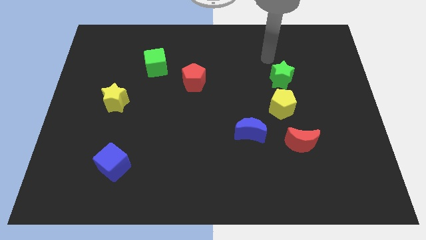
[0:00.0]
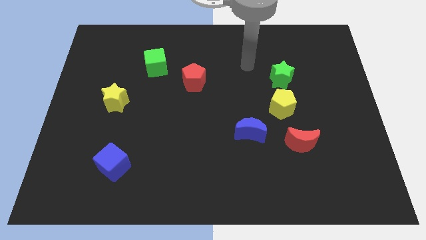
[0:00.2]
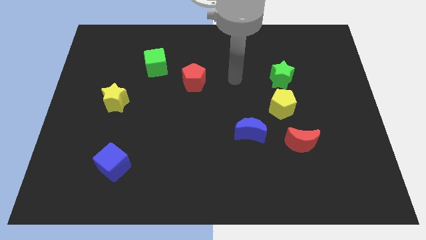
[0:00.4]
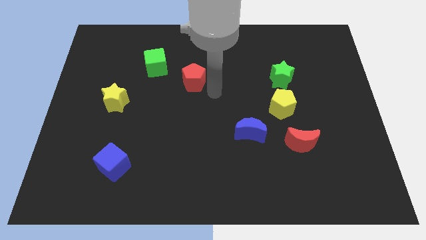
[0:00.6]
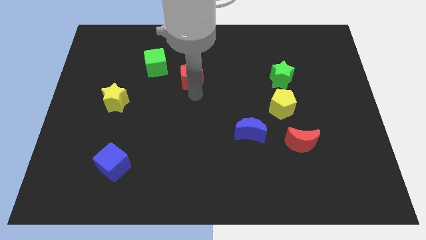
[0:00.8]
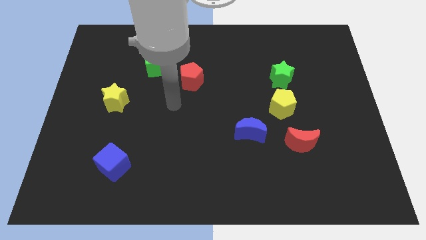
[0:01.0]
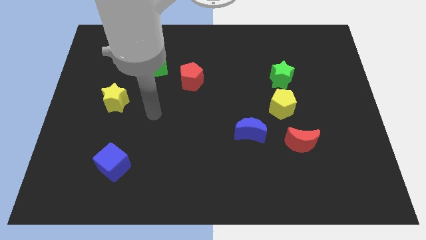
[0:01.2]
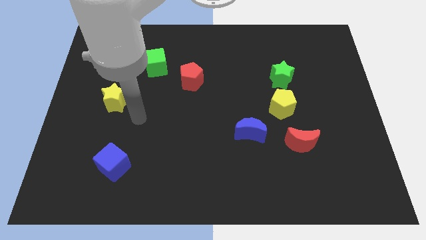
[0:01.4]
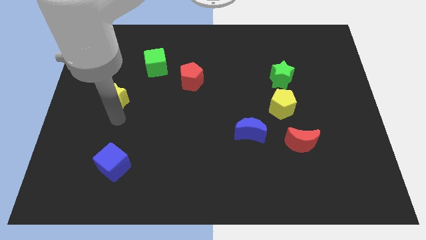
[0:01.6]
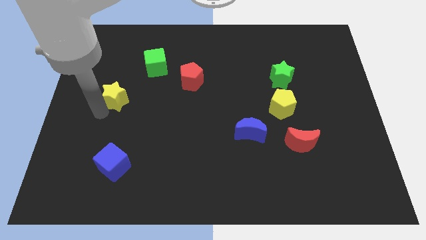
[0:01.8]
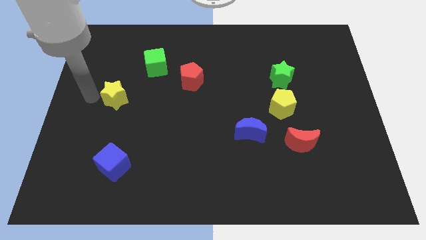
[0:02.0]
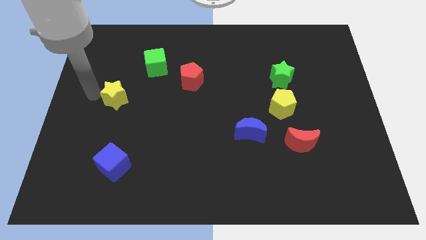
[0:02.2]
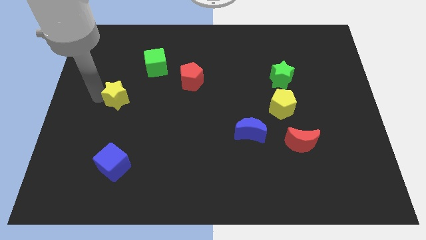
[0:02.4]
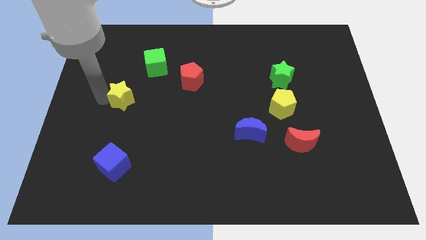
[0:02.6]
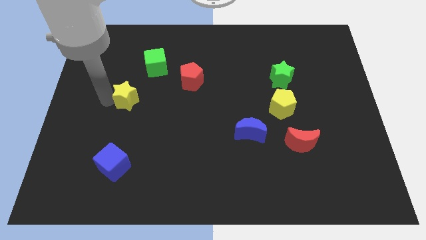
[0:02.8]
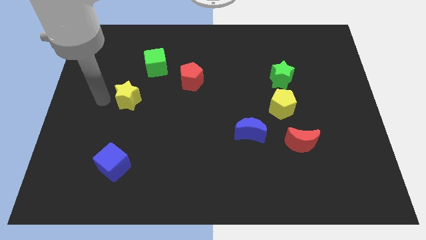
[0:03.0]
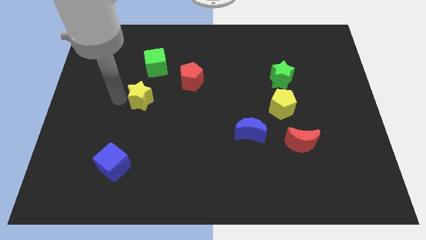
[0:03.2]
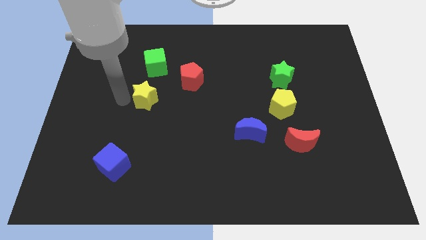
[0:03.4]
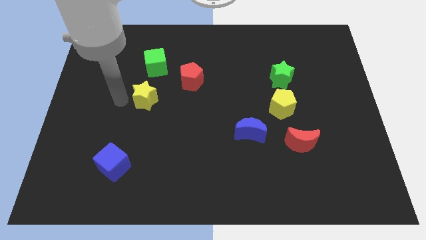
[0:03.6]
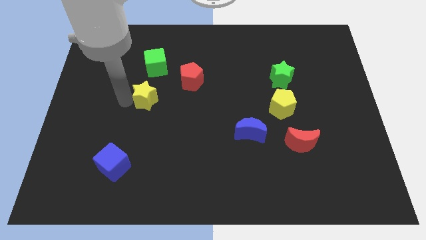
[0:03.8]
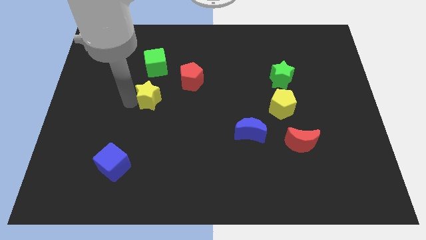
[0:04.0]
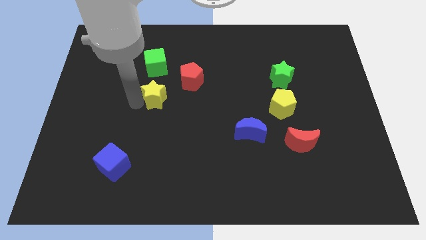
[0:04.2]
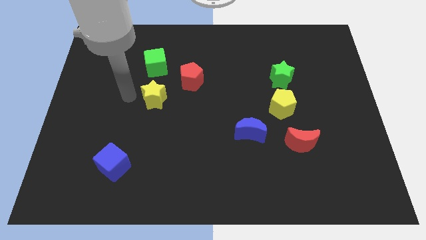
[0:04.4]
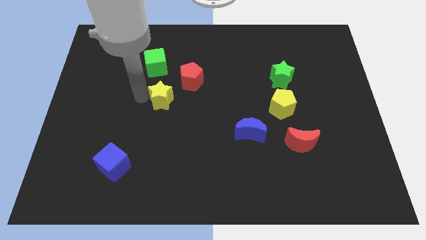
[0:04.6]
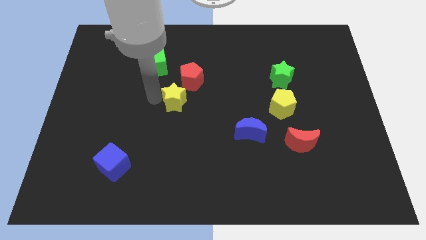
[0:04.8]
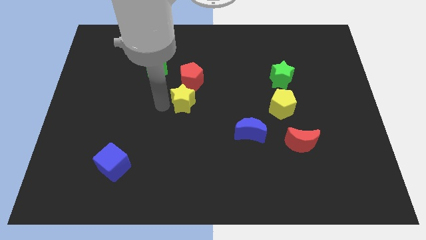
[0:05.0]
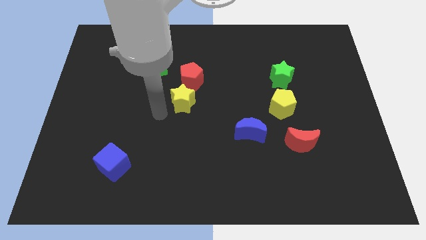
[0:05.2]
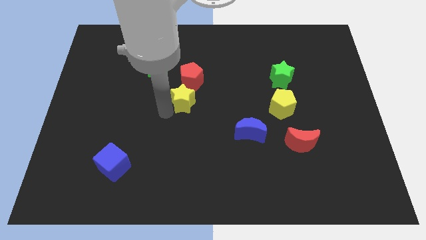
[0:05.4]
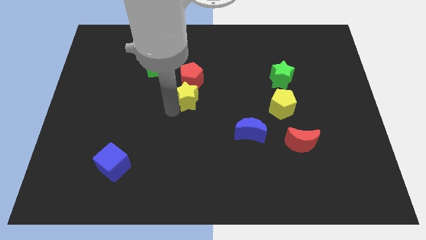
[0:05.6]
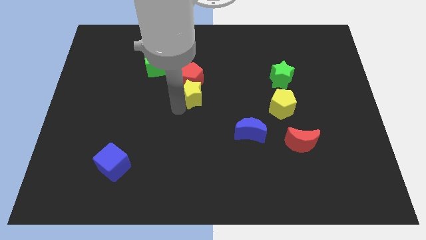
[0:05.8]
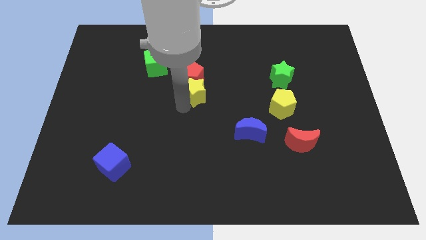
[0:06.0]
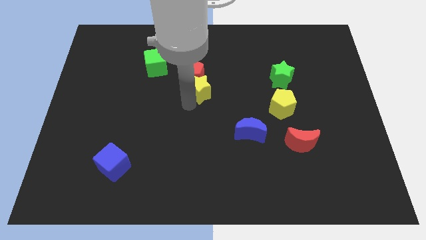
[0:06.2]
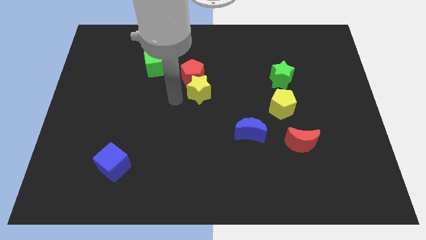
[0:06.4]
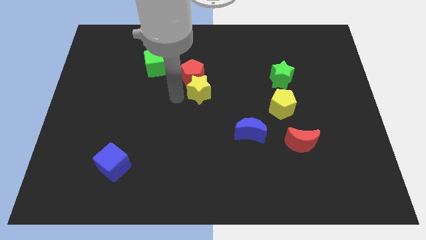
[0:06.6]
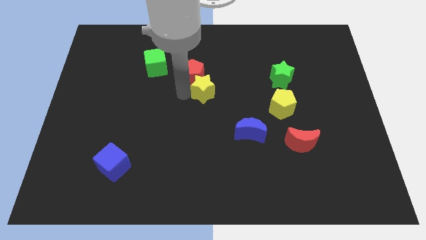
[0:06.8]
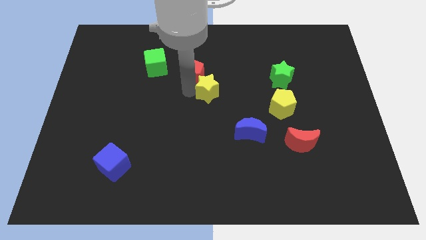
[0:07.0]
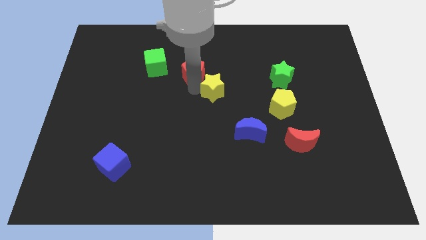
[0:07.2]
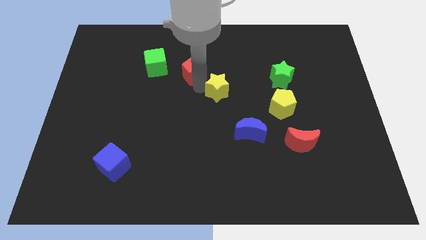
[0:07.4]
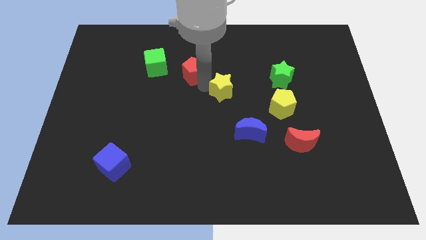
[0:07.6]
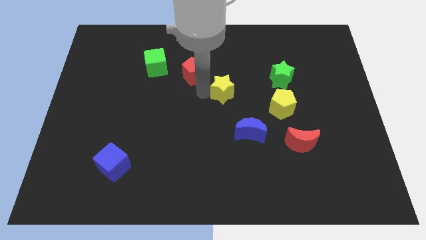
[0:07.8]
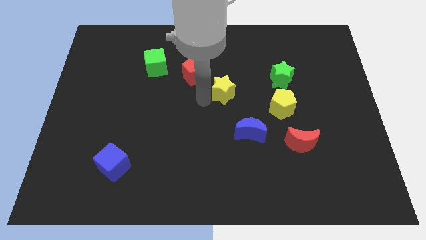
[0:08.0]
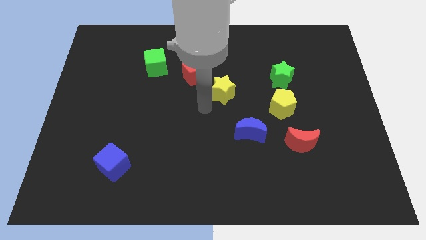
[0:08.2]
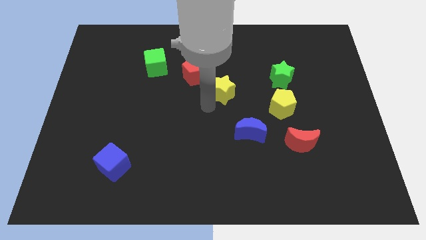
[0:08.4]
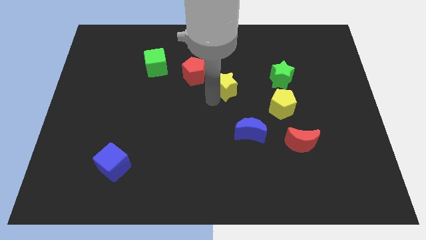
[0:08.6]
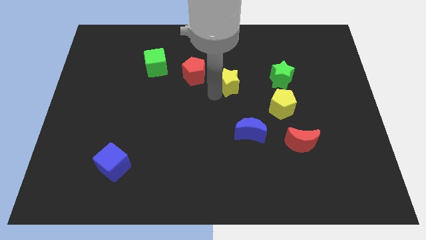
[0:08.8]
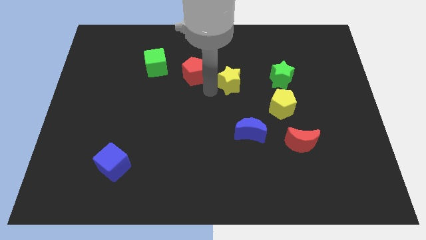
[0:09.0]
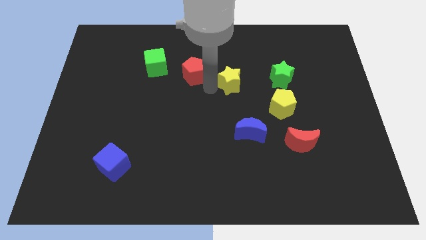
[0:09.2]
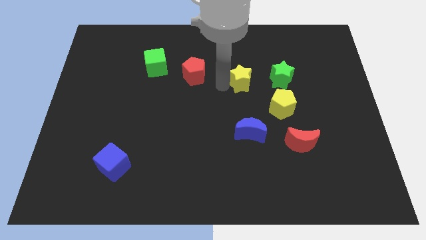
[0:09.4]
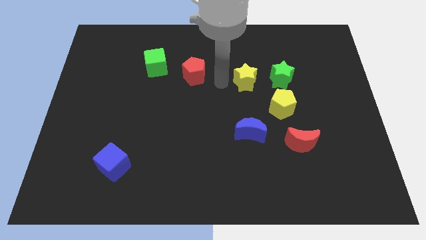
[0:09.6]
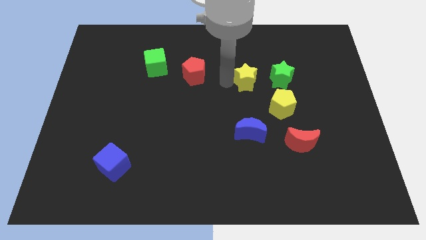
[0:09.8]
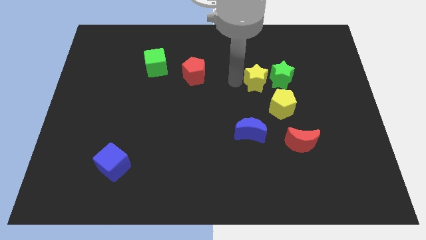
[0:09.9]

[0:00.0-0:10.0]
move the yellow star close to the green star

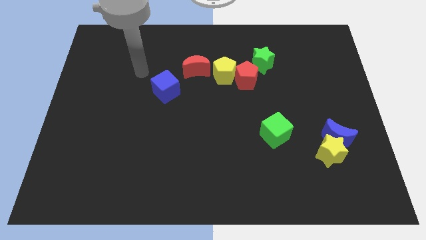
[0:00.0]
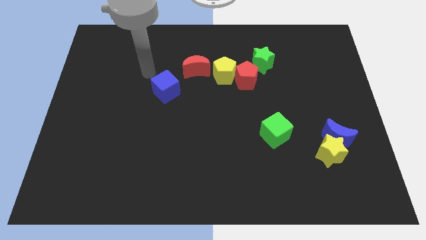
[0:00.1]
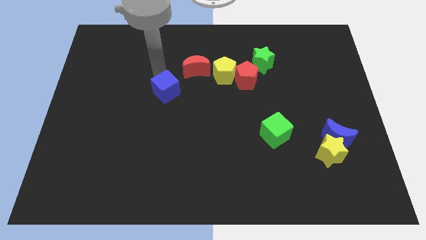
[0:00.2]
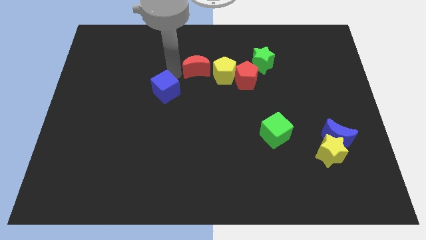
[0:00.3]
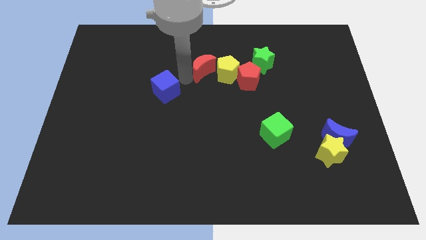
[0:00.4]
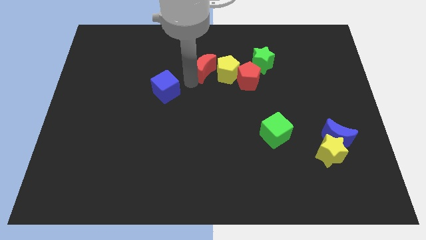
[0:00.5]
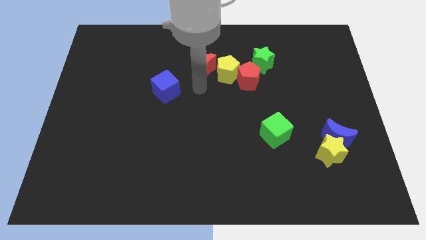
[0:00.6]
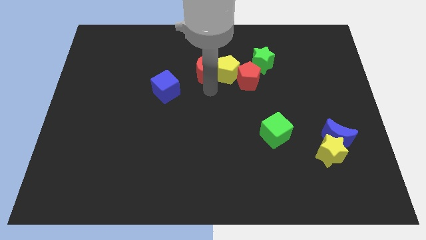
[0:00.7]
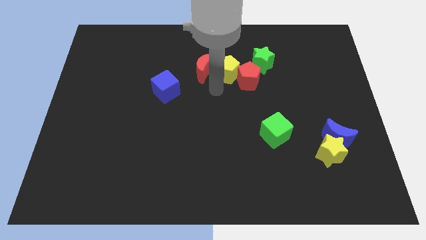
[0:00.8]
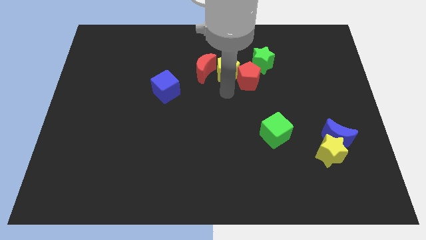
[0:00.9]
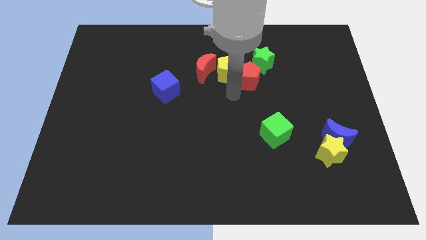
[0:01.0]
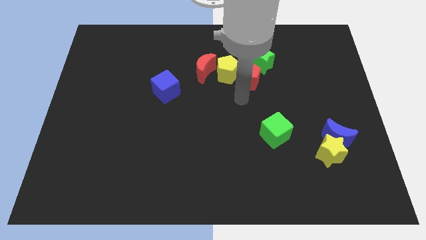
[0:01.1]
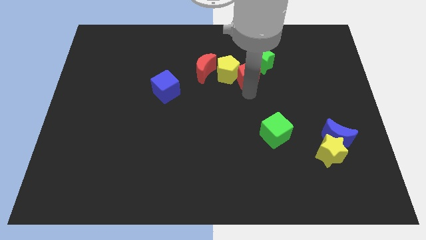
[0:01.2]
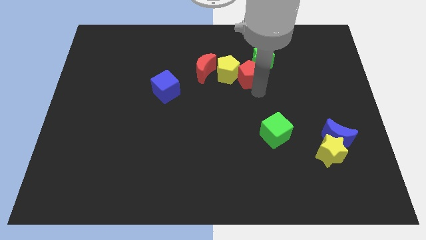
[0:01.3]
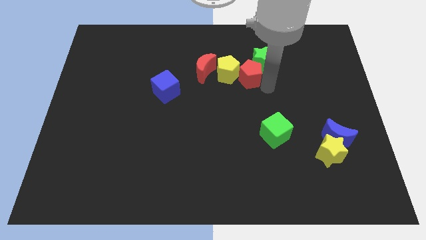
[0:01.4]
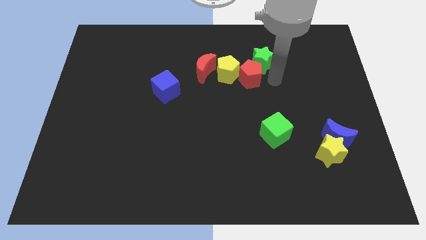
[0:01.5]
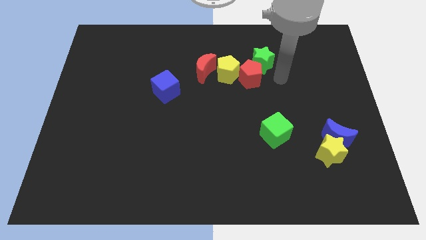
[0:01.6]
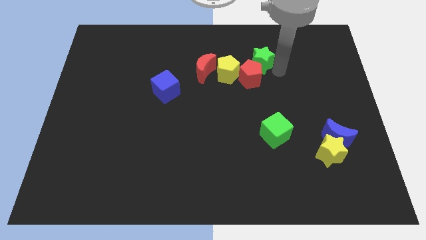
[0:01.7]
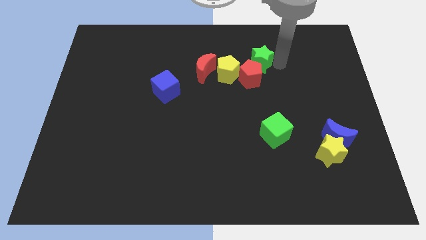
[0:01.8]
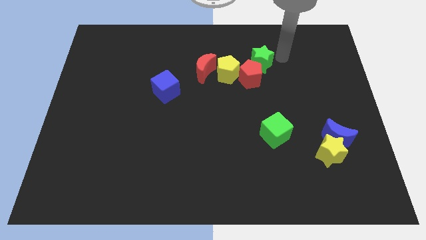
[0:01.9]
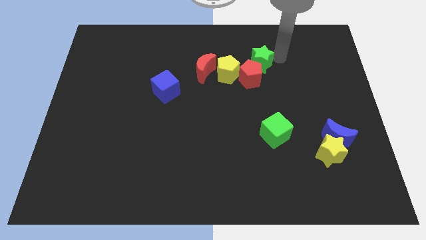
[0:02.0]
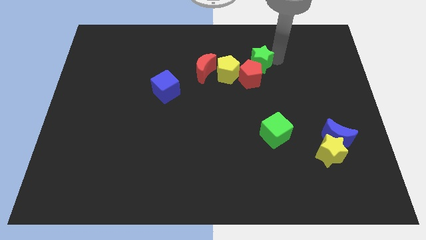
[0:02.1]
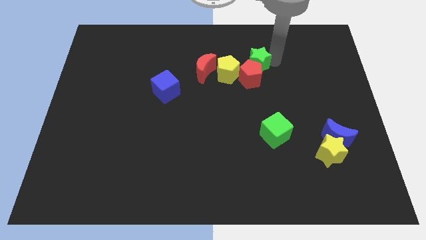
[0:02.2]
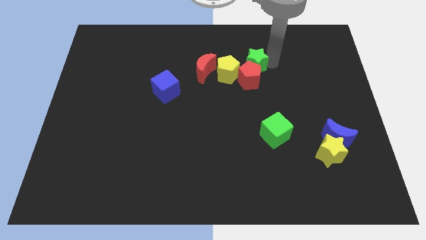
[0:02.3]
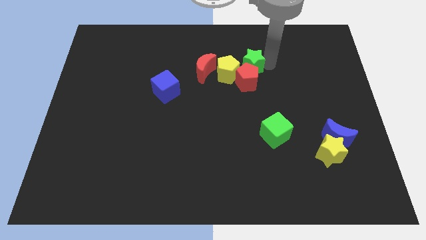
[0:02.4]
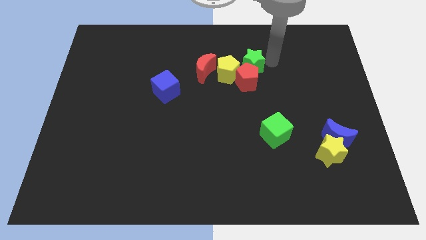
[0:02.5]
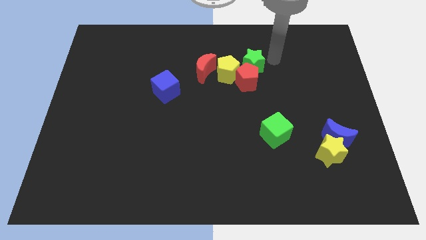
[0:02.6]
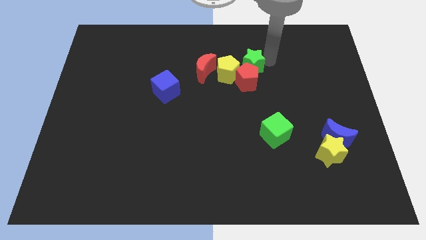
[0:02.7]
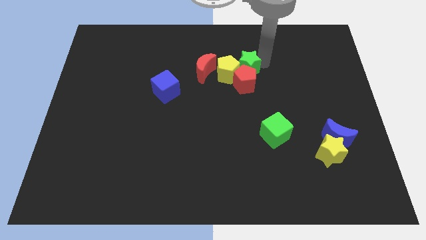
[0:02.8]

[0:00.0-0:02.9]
move the green star close to the yellow pentagon

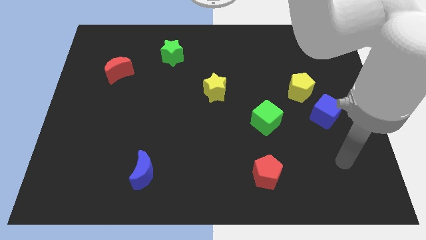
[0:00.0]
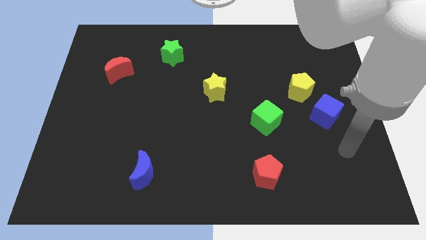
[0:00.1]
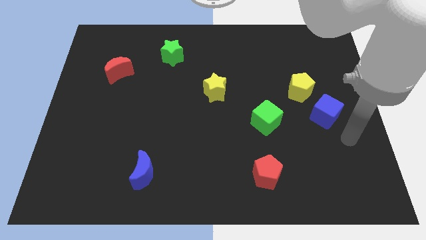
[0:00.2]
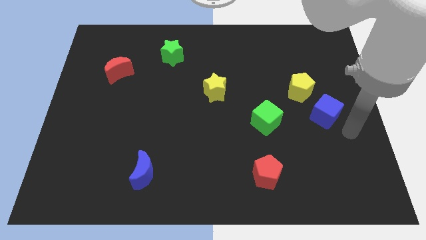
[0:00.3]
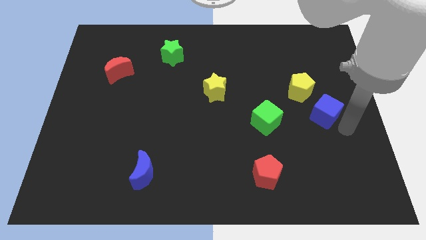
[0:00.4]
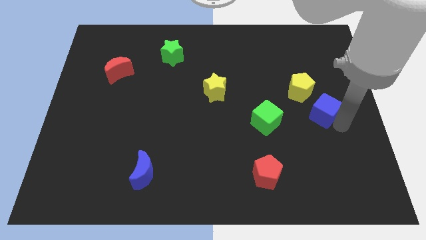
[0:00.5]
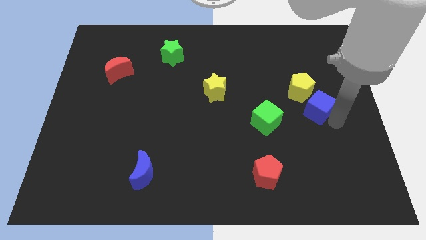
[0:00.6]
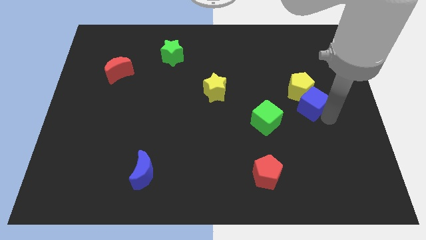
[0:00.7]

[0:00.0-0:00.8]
slide the blue cube towards the yellow pentagon
